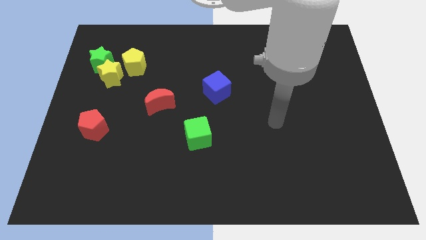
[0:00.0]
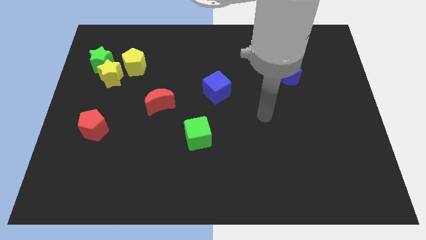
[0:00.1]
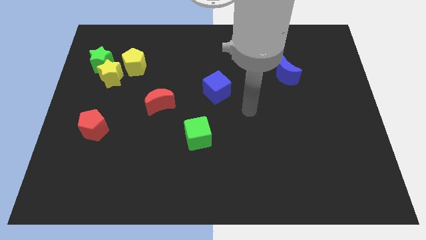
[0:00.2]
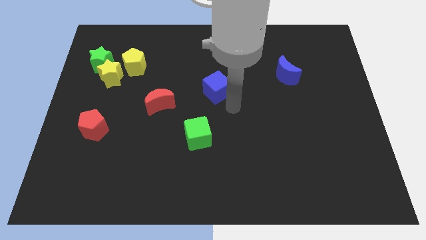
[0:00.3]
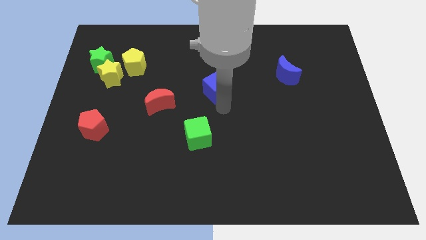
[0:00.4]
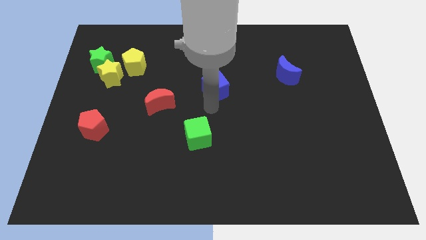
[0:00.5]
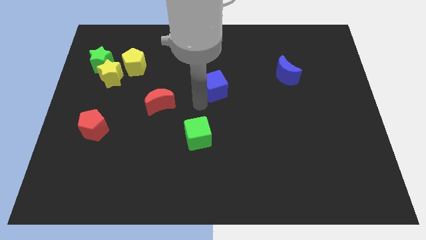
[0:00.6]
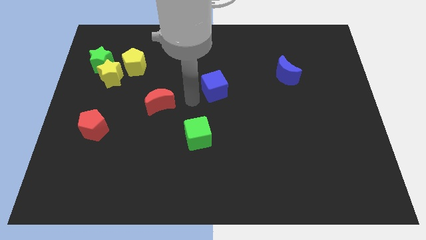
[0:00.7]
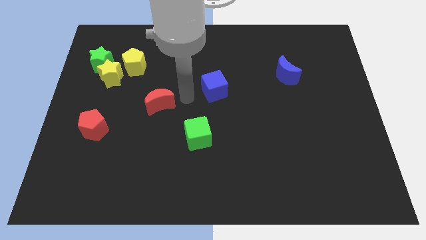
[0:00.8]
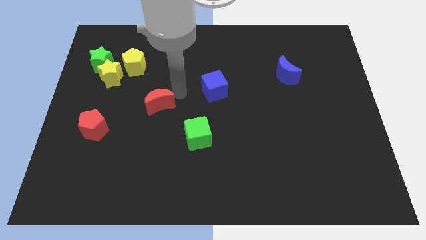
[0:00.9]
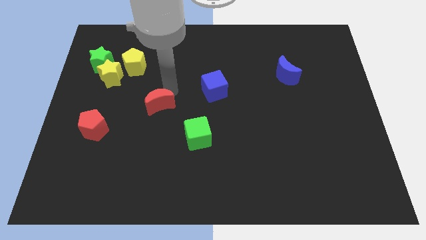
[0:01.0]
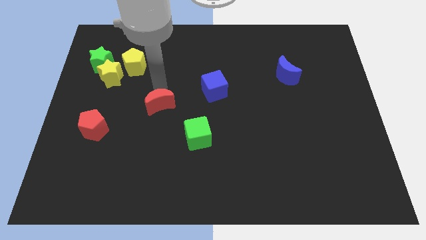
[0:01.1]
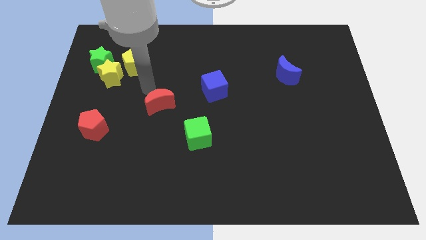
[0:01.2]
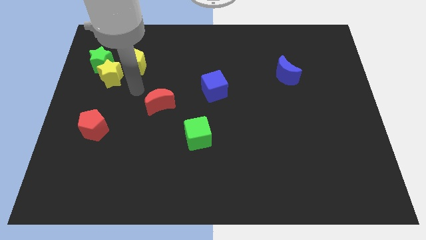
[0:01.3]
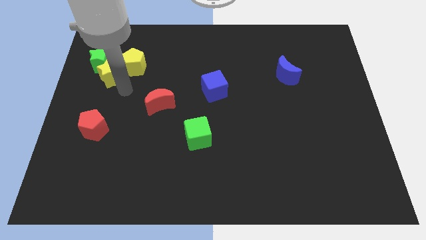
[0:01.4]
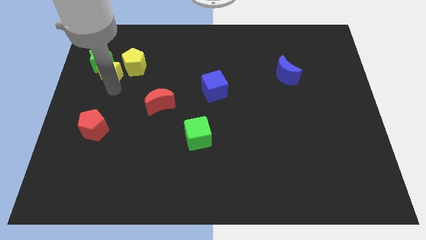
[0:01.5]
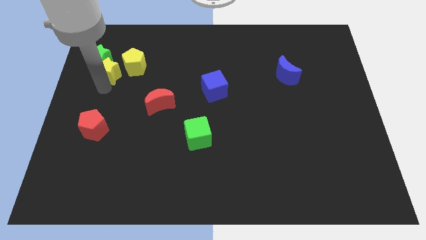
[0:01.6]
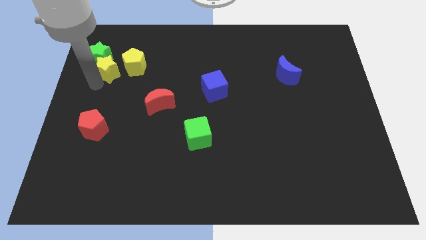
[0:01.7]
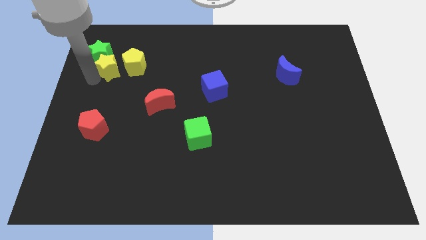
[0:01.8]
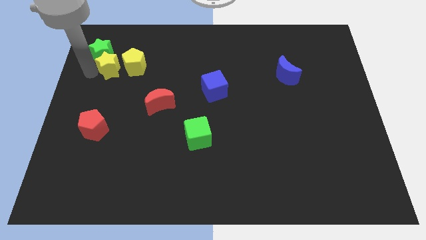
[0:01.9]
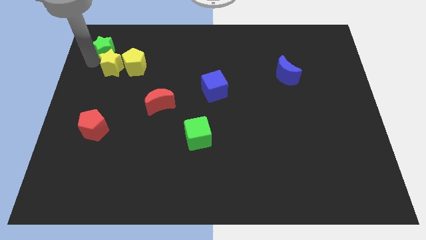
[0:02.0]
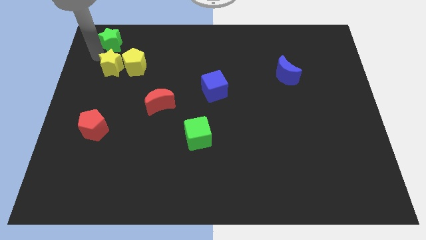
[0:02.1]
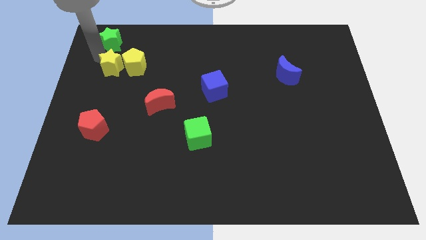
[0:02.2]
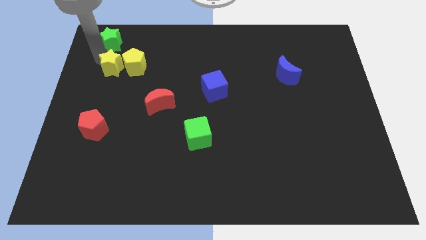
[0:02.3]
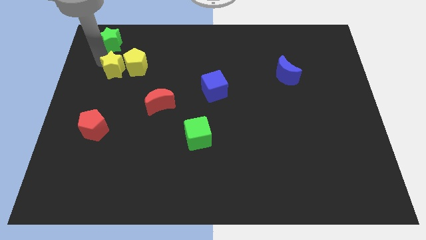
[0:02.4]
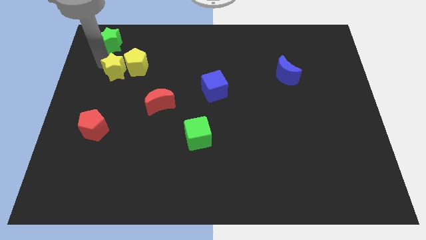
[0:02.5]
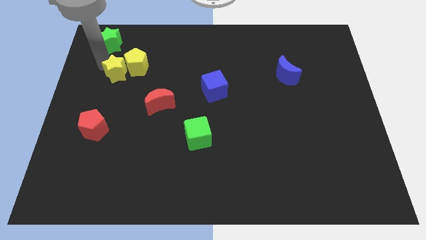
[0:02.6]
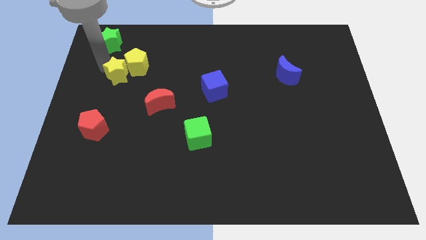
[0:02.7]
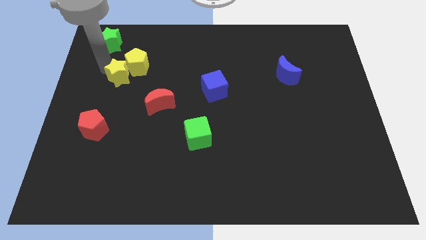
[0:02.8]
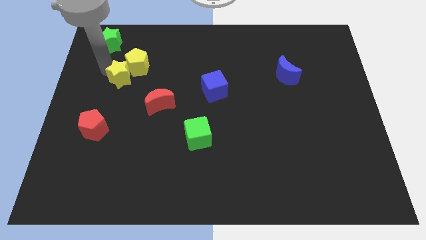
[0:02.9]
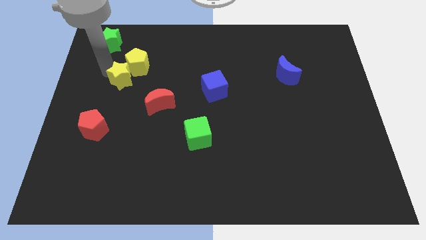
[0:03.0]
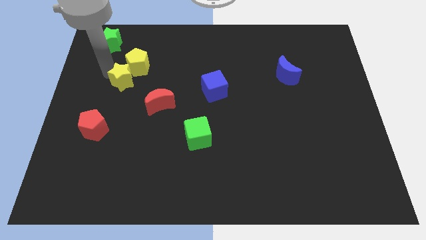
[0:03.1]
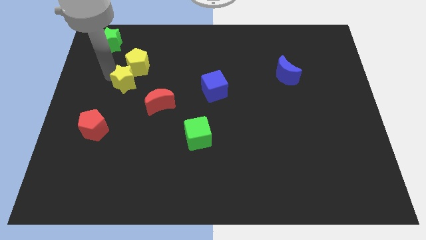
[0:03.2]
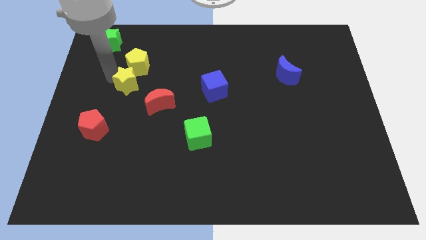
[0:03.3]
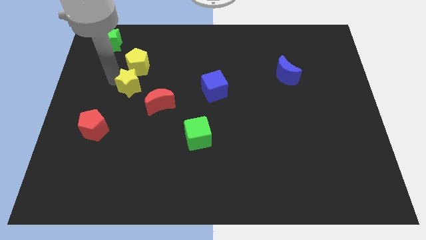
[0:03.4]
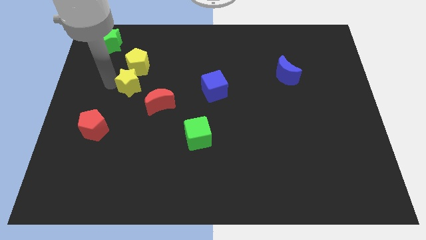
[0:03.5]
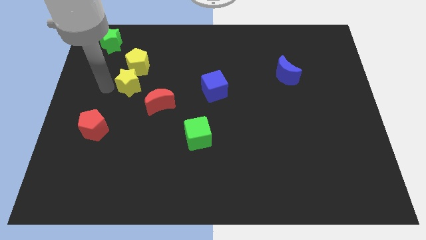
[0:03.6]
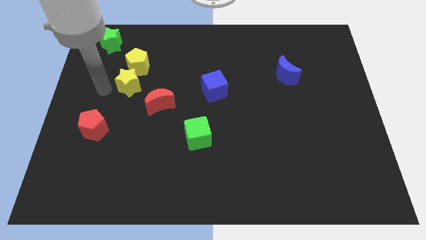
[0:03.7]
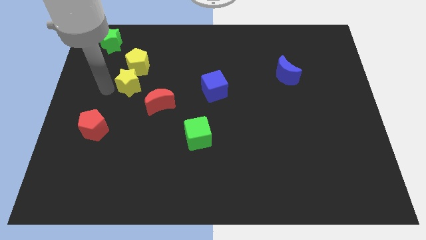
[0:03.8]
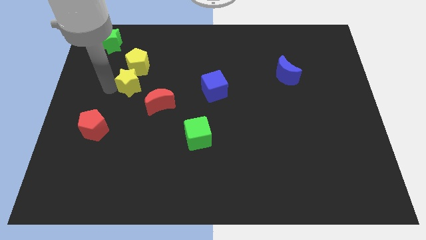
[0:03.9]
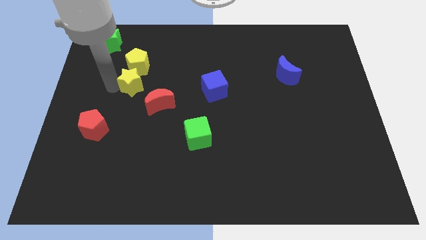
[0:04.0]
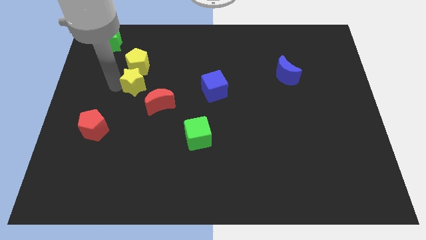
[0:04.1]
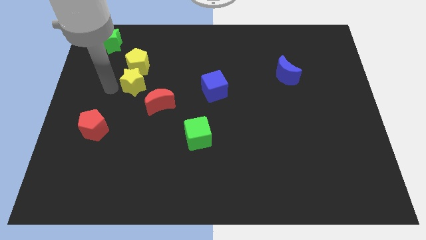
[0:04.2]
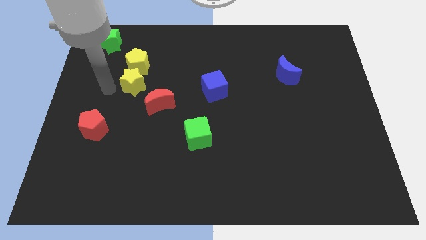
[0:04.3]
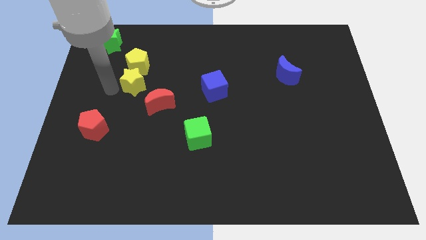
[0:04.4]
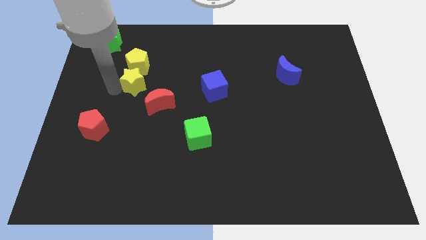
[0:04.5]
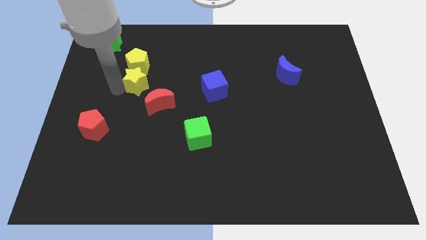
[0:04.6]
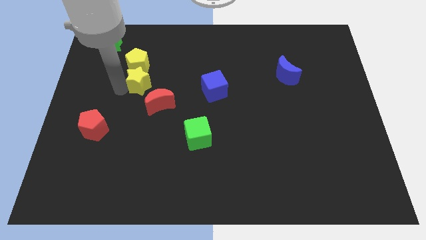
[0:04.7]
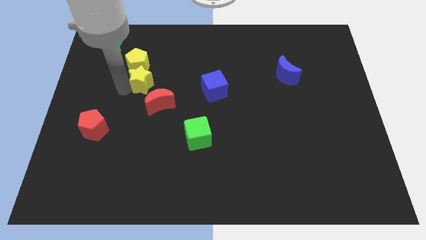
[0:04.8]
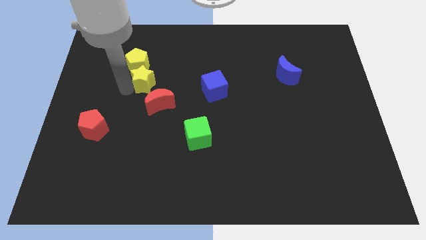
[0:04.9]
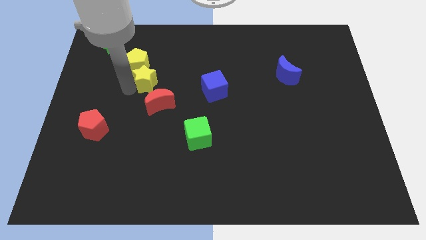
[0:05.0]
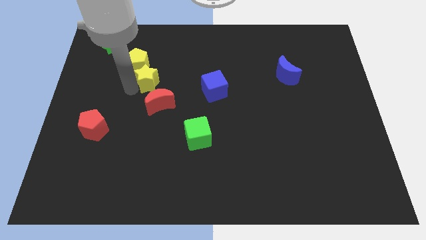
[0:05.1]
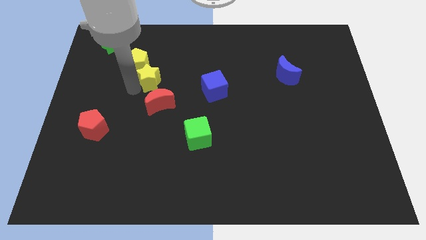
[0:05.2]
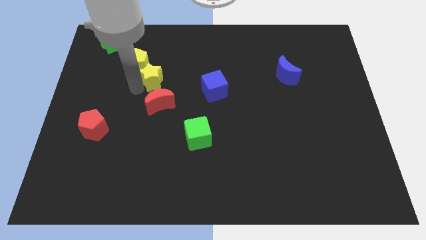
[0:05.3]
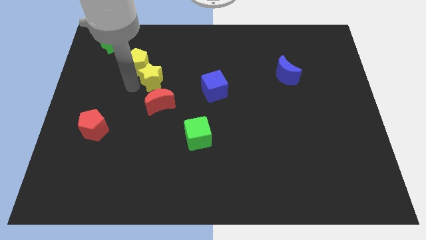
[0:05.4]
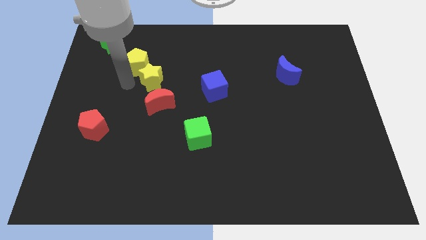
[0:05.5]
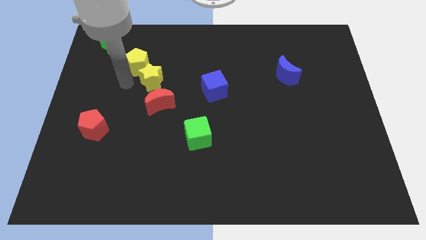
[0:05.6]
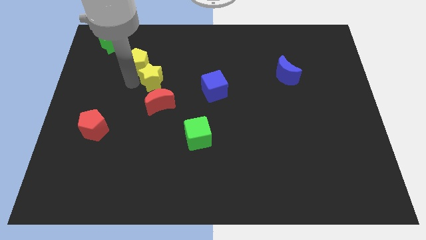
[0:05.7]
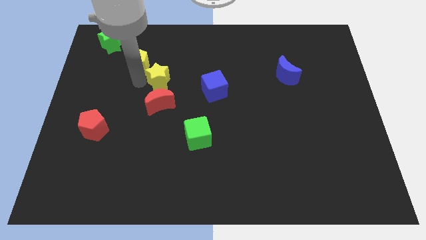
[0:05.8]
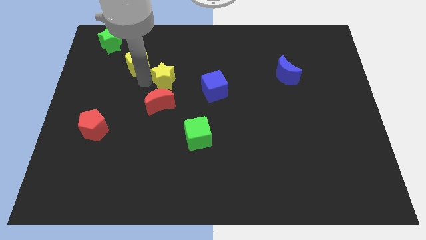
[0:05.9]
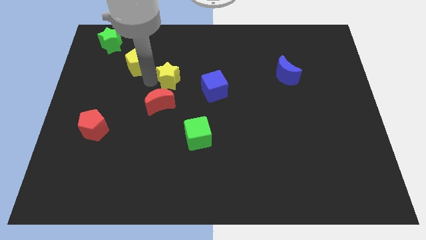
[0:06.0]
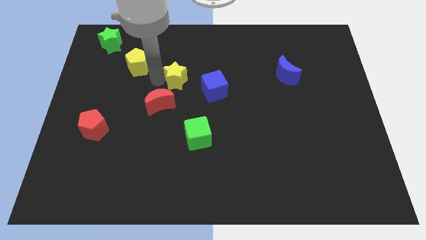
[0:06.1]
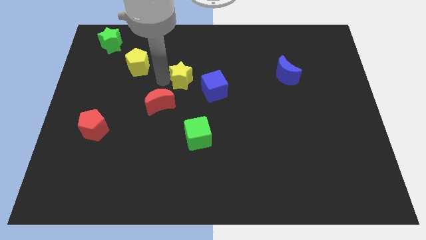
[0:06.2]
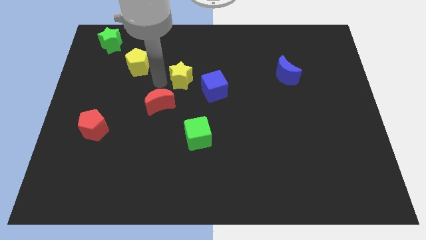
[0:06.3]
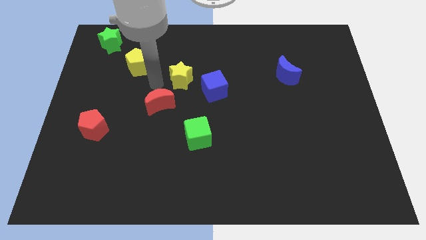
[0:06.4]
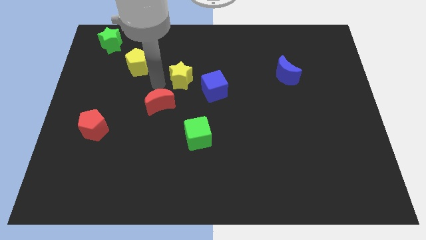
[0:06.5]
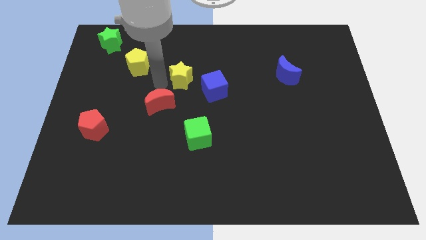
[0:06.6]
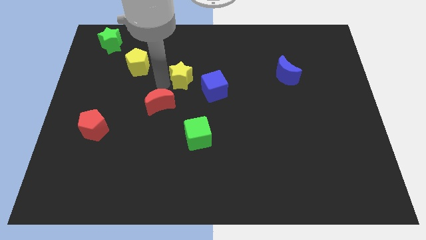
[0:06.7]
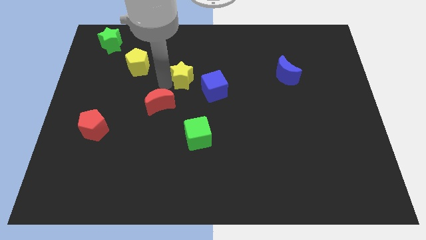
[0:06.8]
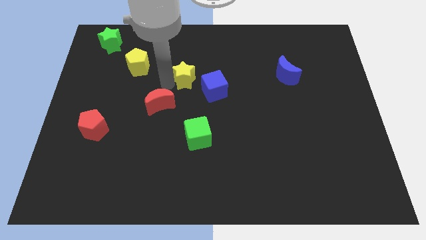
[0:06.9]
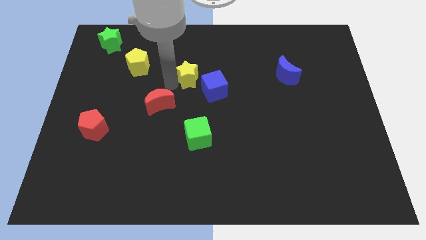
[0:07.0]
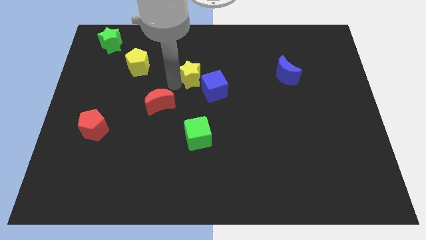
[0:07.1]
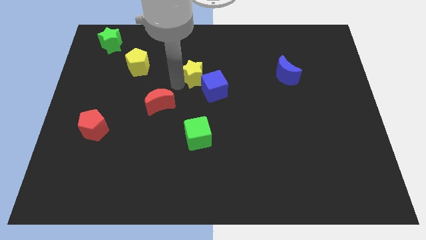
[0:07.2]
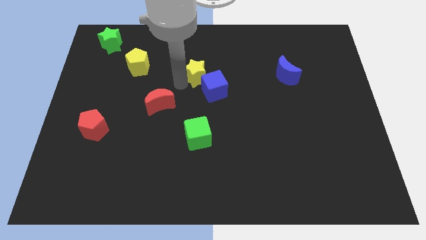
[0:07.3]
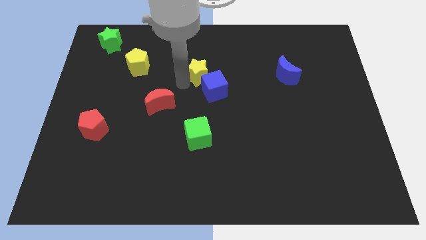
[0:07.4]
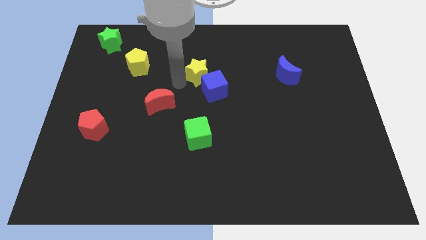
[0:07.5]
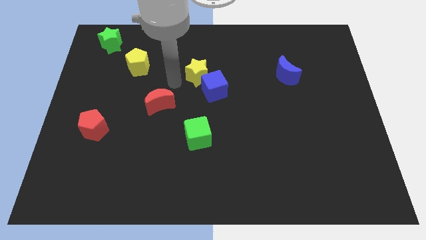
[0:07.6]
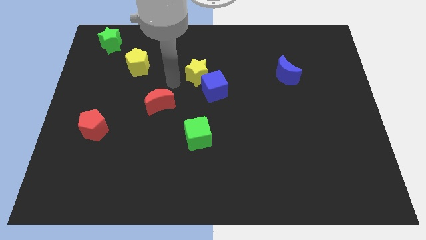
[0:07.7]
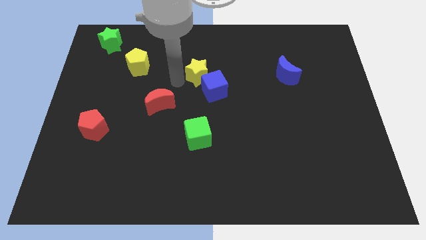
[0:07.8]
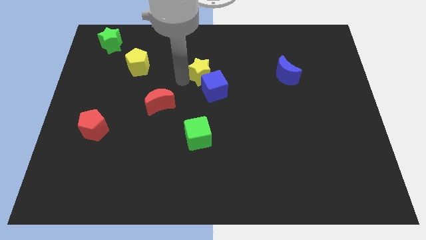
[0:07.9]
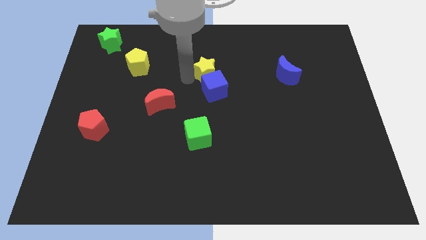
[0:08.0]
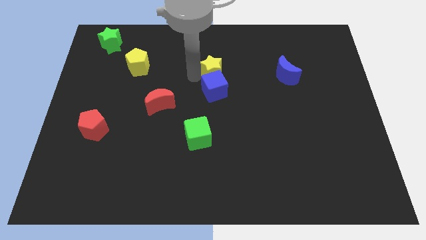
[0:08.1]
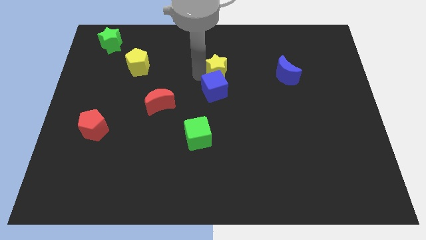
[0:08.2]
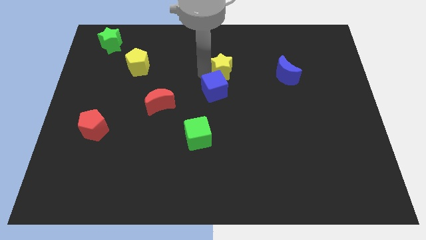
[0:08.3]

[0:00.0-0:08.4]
put the yellow star to the left side of the blue moon
